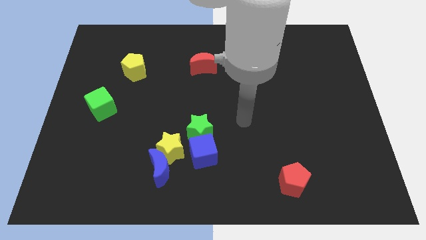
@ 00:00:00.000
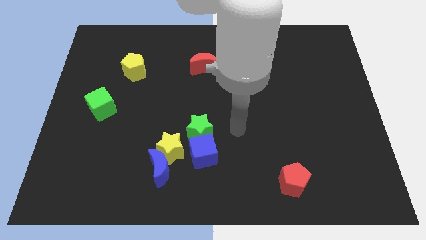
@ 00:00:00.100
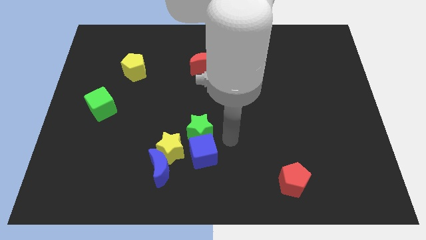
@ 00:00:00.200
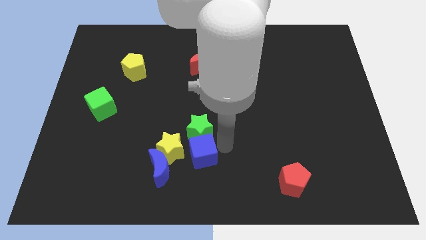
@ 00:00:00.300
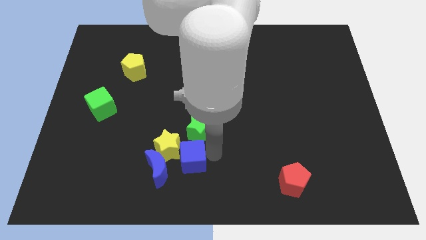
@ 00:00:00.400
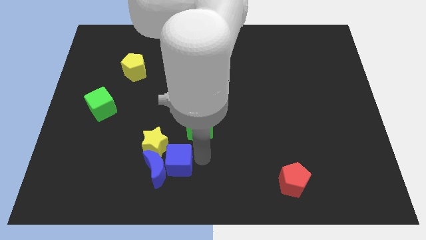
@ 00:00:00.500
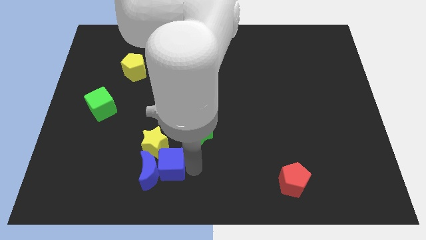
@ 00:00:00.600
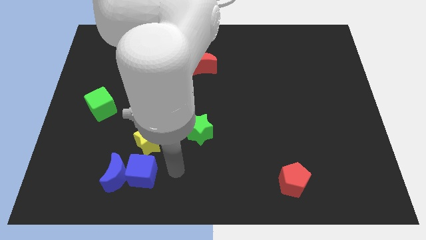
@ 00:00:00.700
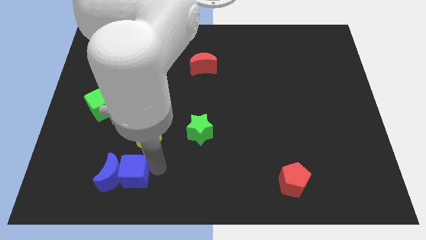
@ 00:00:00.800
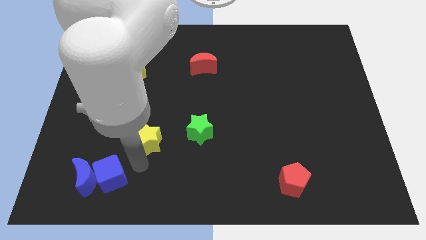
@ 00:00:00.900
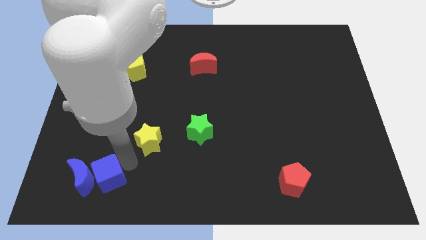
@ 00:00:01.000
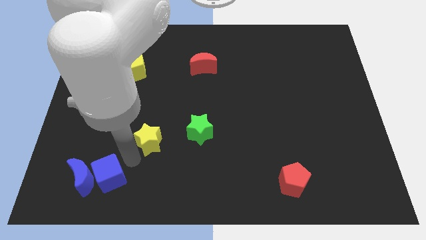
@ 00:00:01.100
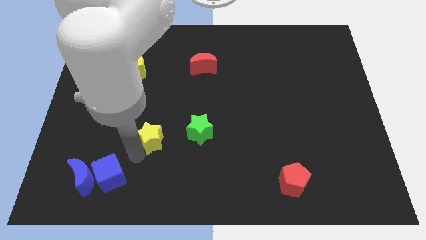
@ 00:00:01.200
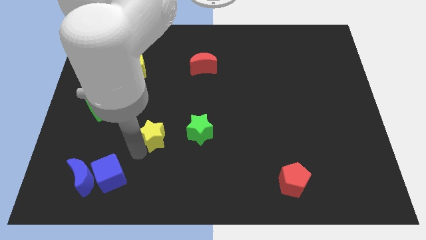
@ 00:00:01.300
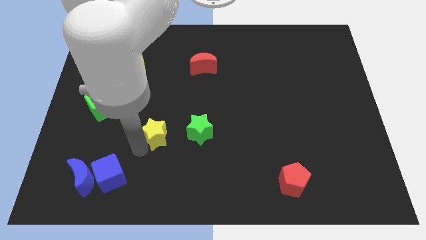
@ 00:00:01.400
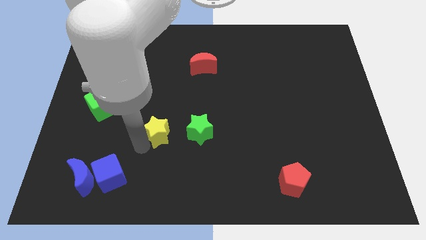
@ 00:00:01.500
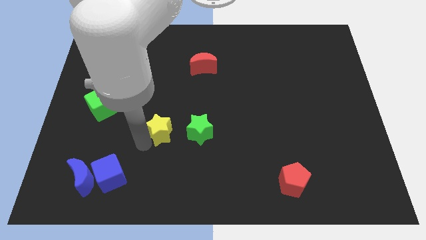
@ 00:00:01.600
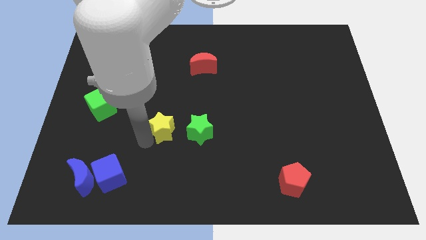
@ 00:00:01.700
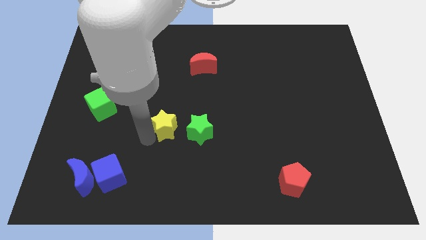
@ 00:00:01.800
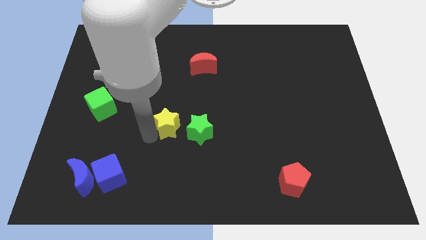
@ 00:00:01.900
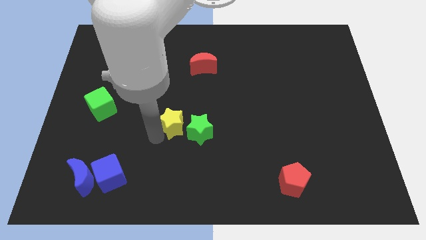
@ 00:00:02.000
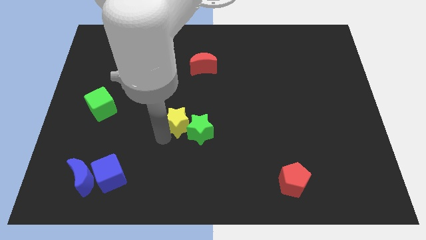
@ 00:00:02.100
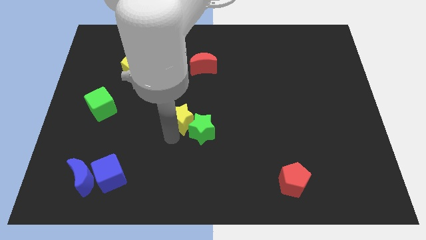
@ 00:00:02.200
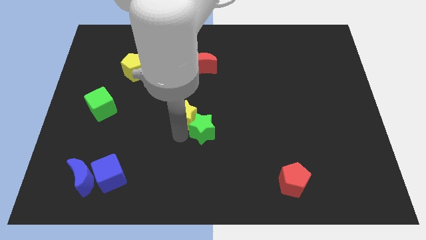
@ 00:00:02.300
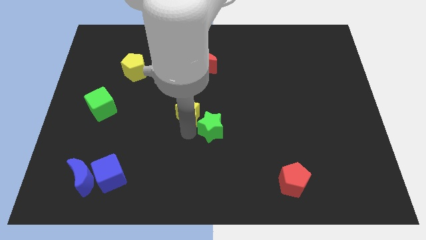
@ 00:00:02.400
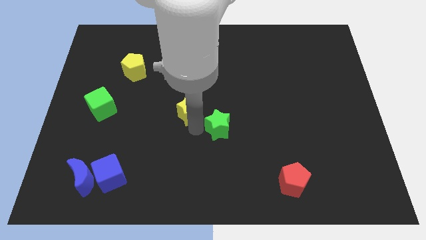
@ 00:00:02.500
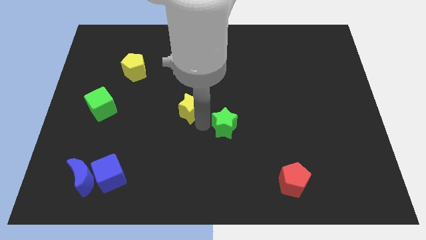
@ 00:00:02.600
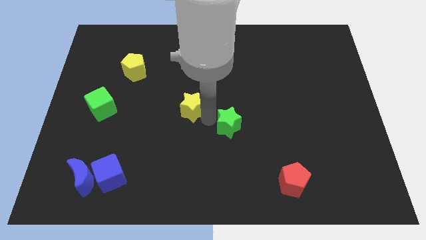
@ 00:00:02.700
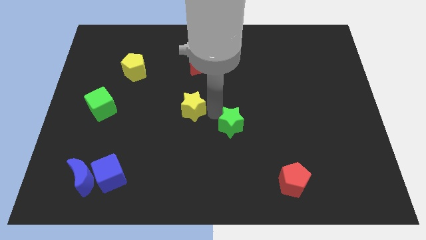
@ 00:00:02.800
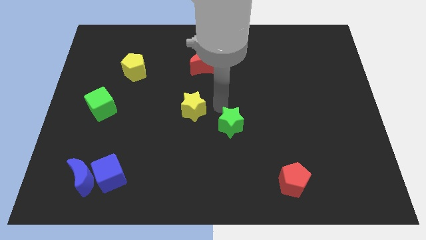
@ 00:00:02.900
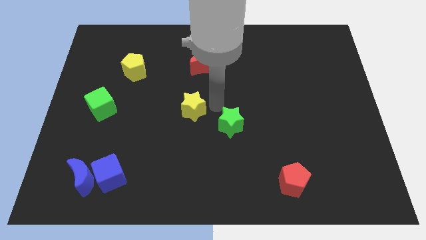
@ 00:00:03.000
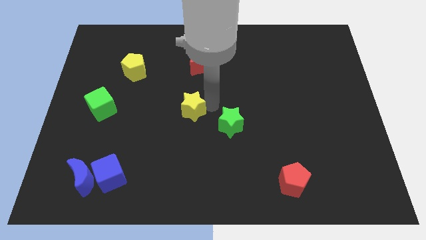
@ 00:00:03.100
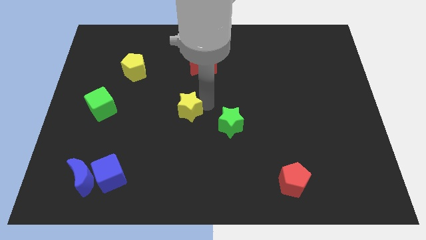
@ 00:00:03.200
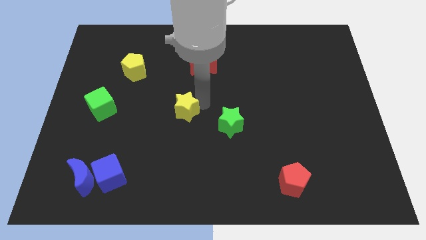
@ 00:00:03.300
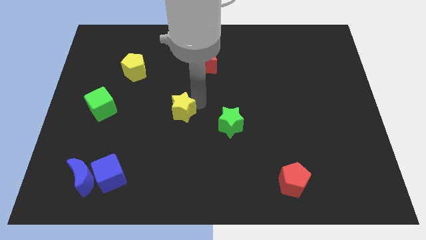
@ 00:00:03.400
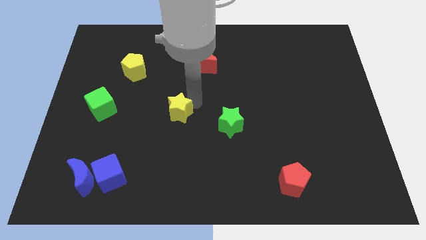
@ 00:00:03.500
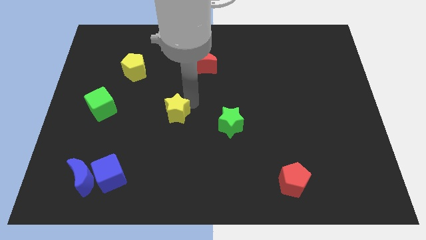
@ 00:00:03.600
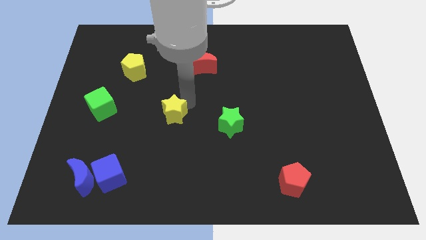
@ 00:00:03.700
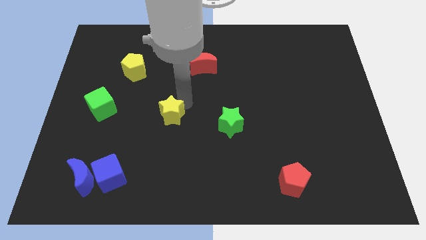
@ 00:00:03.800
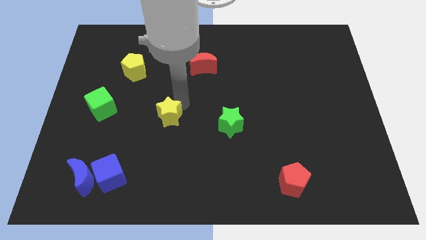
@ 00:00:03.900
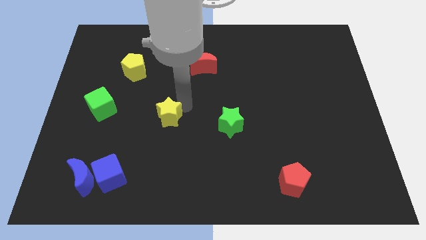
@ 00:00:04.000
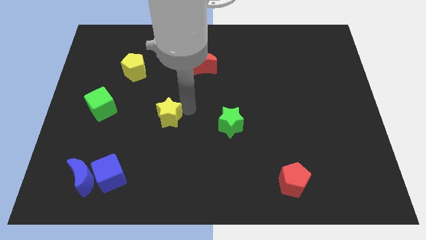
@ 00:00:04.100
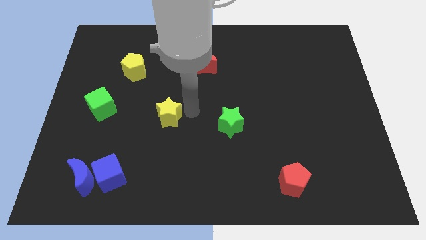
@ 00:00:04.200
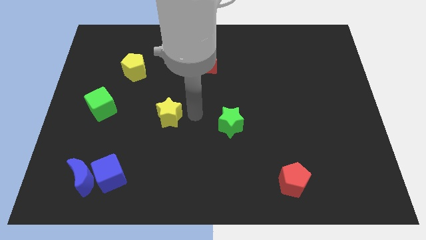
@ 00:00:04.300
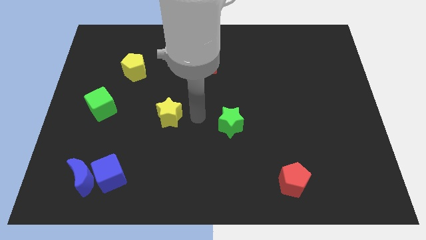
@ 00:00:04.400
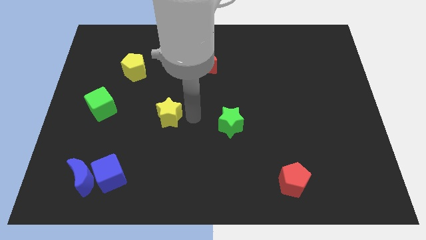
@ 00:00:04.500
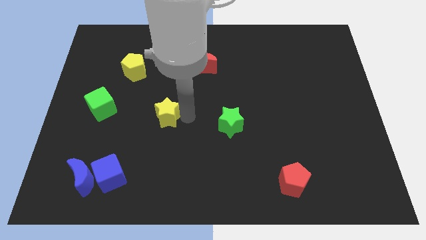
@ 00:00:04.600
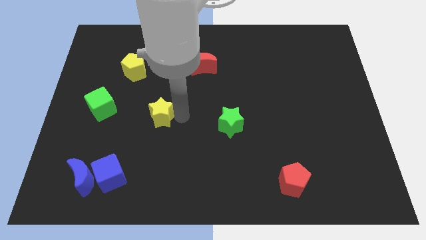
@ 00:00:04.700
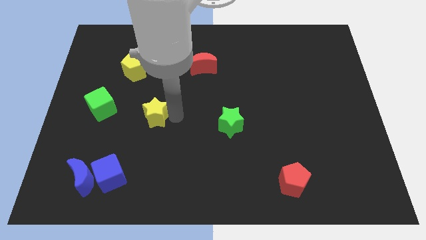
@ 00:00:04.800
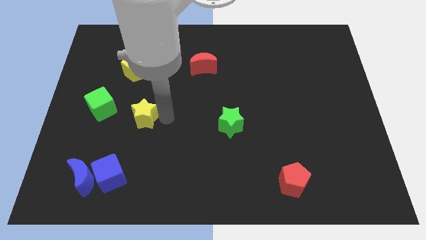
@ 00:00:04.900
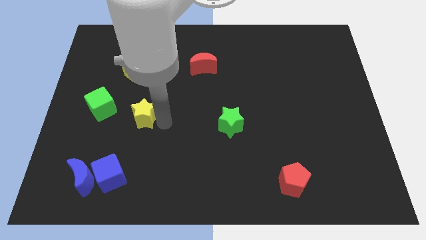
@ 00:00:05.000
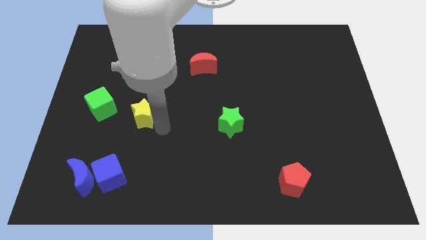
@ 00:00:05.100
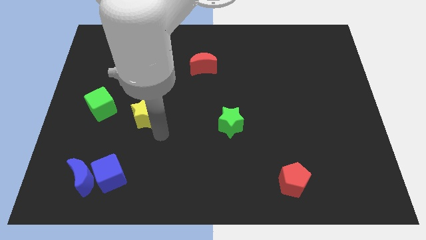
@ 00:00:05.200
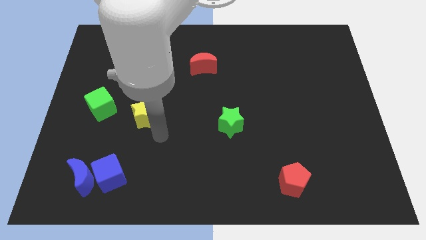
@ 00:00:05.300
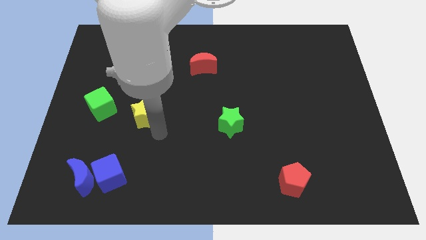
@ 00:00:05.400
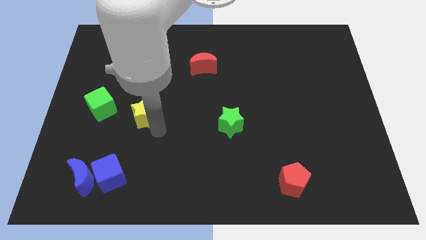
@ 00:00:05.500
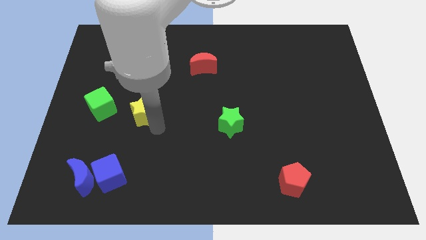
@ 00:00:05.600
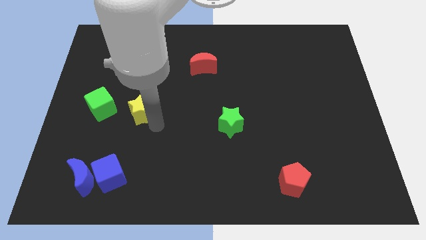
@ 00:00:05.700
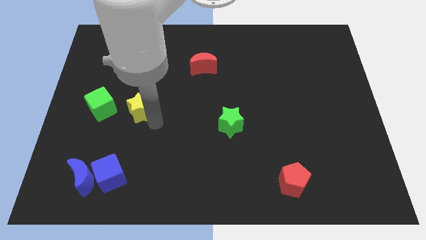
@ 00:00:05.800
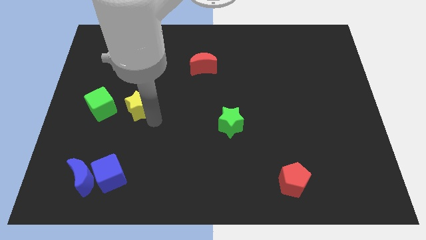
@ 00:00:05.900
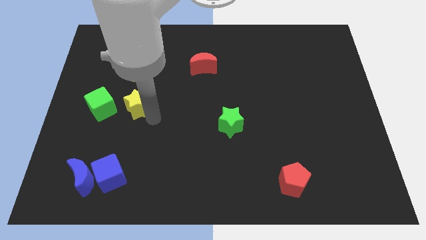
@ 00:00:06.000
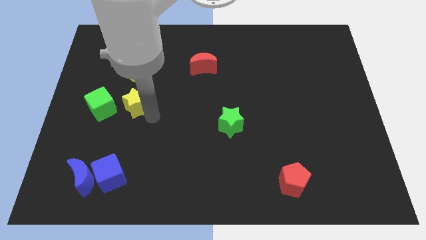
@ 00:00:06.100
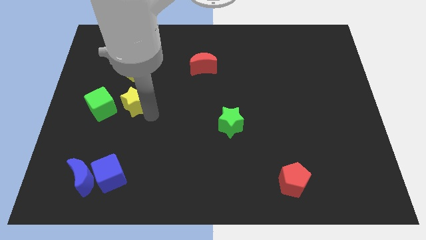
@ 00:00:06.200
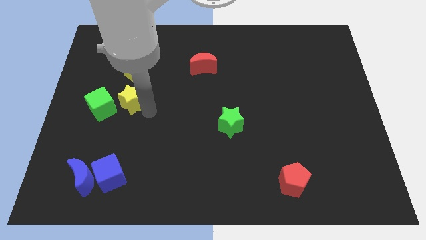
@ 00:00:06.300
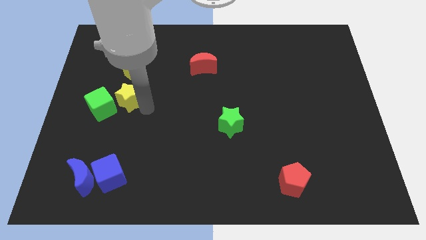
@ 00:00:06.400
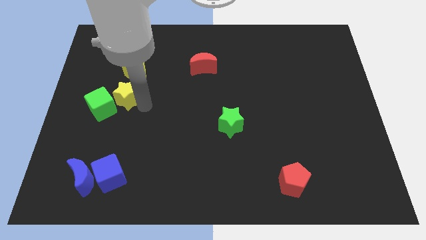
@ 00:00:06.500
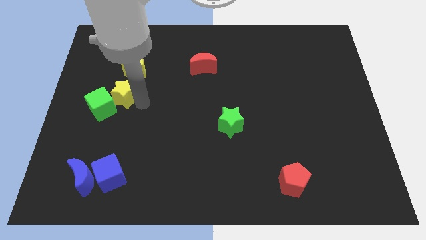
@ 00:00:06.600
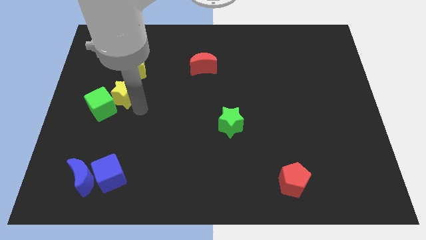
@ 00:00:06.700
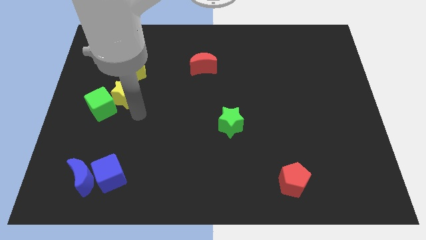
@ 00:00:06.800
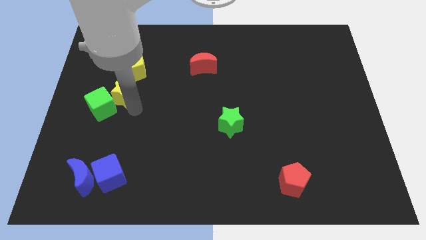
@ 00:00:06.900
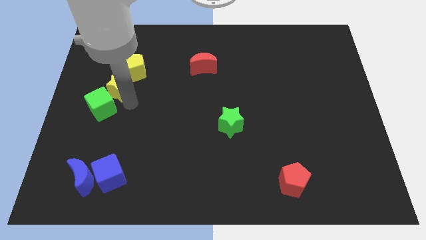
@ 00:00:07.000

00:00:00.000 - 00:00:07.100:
move the yellow star to the top side of the green cube
